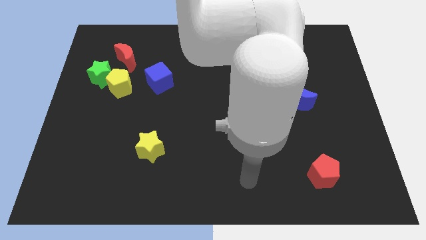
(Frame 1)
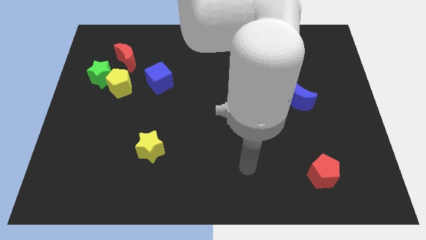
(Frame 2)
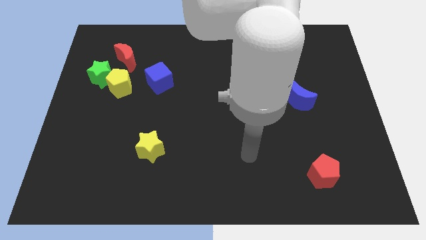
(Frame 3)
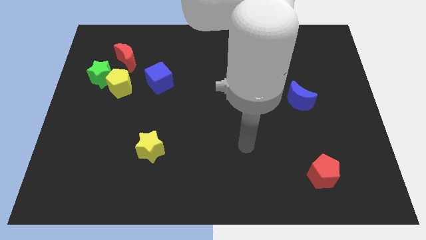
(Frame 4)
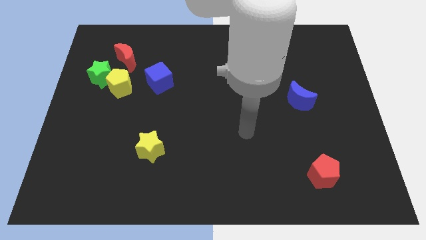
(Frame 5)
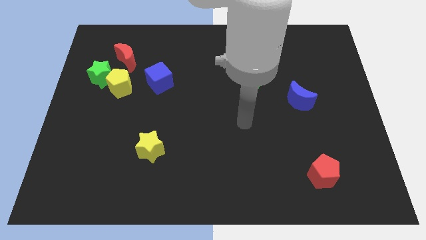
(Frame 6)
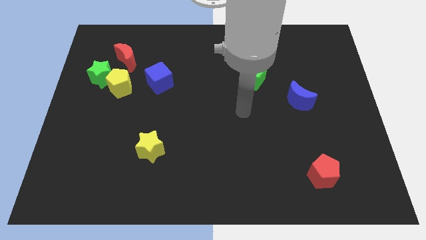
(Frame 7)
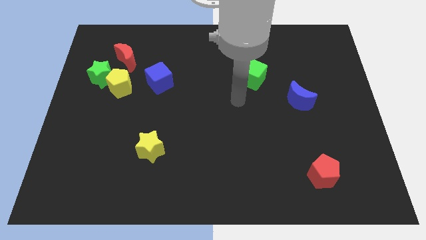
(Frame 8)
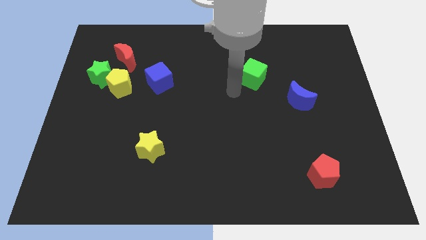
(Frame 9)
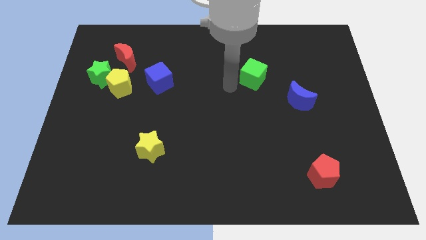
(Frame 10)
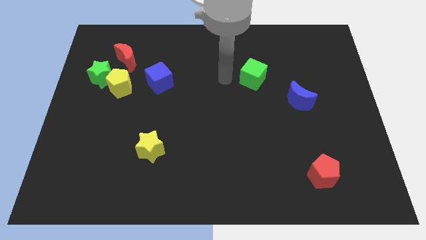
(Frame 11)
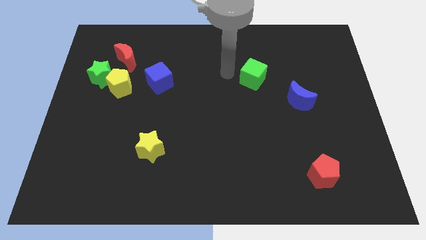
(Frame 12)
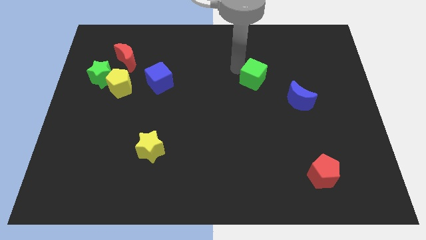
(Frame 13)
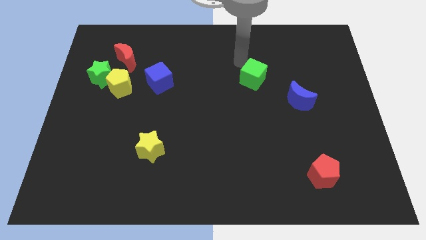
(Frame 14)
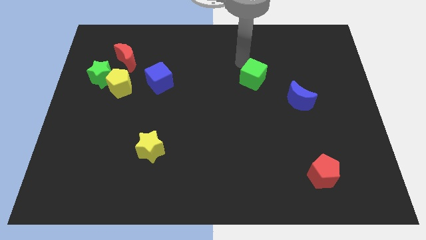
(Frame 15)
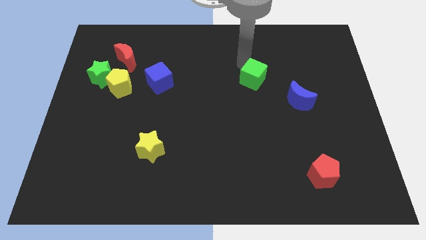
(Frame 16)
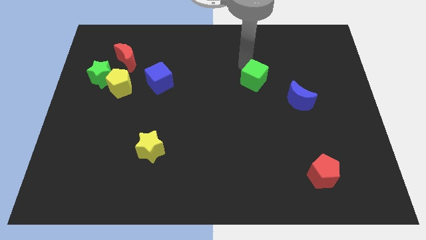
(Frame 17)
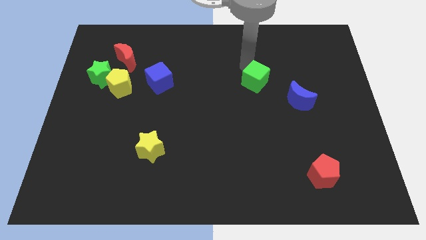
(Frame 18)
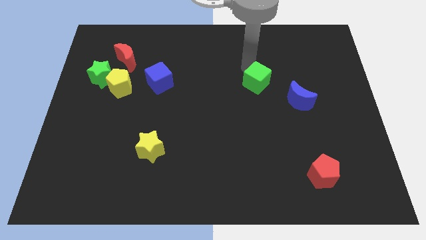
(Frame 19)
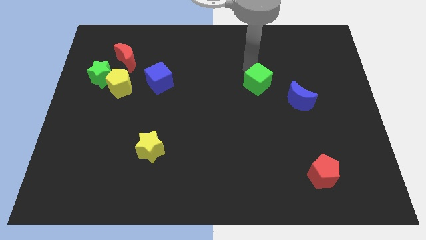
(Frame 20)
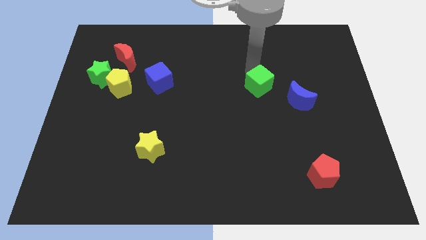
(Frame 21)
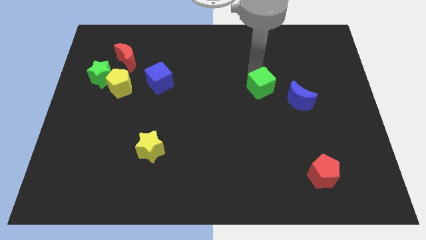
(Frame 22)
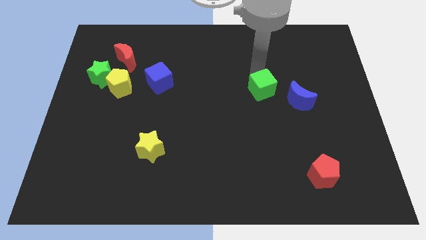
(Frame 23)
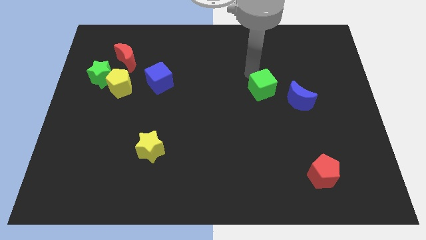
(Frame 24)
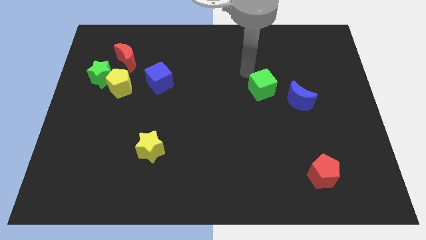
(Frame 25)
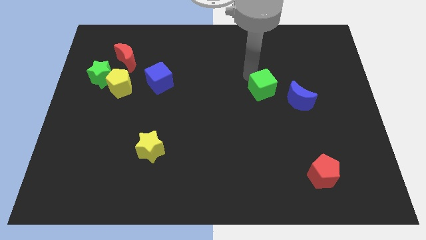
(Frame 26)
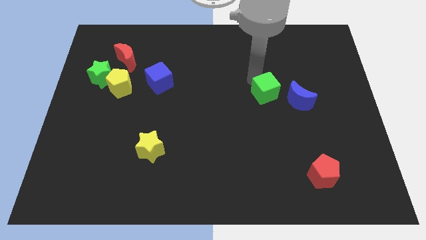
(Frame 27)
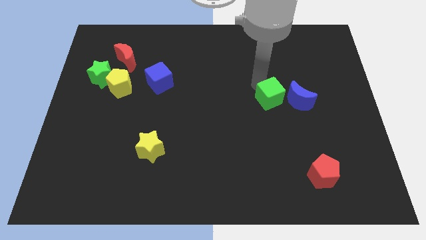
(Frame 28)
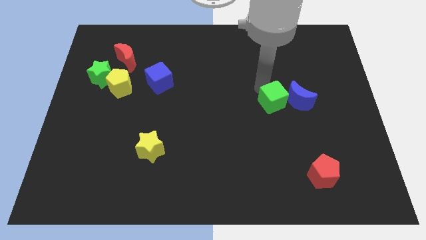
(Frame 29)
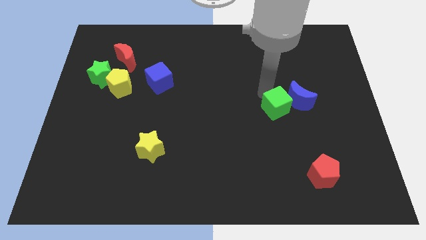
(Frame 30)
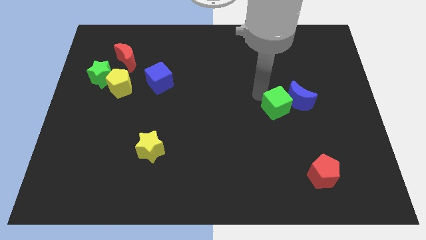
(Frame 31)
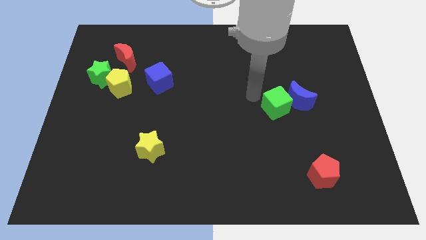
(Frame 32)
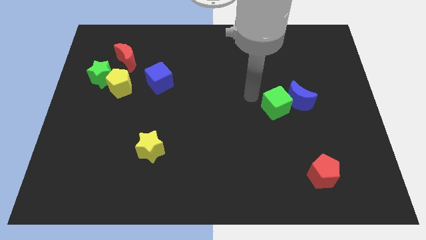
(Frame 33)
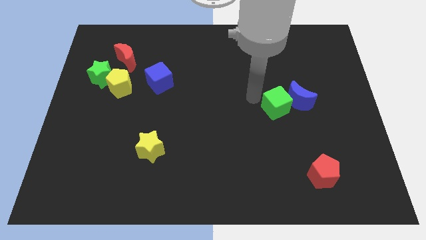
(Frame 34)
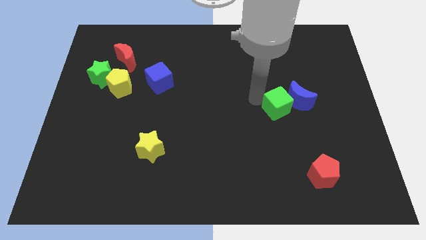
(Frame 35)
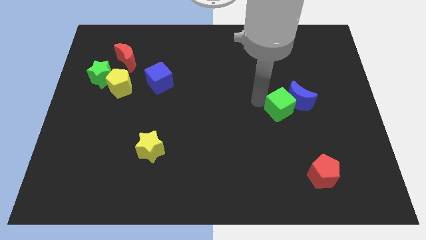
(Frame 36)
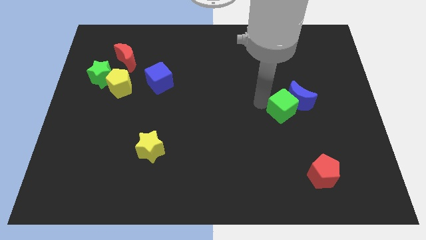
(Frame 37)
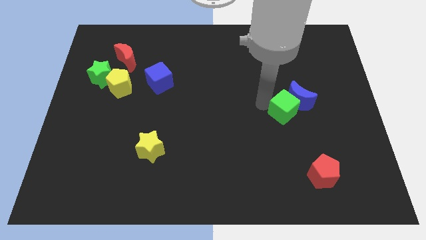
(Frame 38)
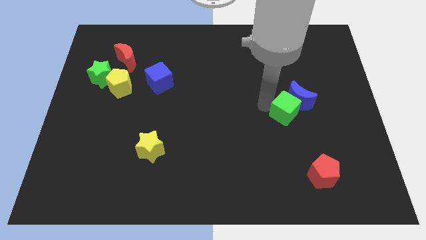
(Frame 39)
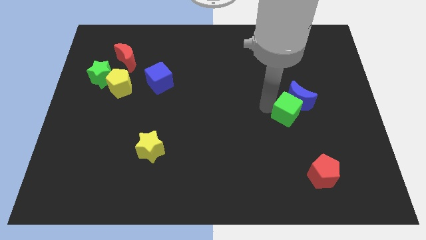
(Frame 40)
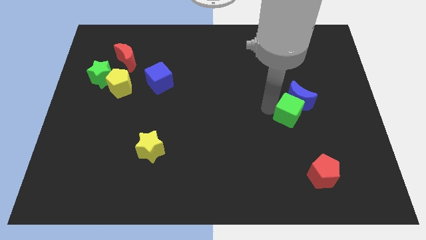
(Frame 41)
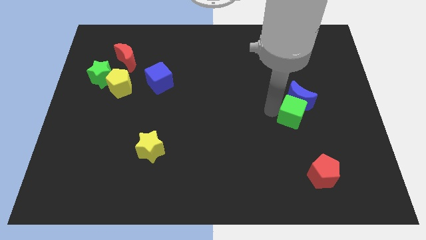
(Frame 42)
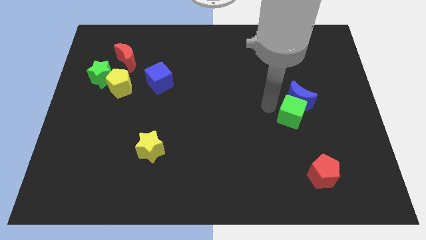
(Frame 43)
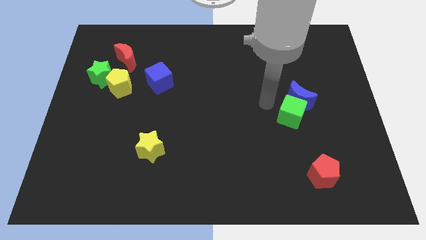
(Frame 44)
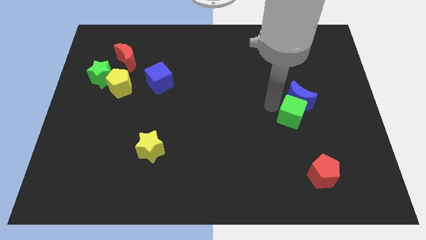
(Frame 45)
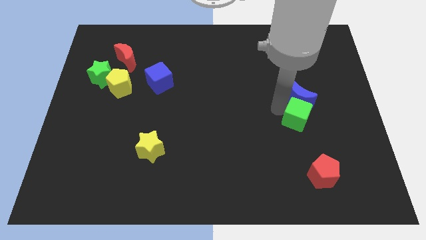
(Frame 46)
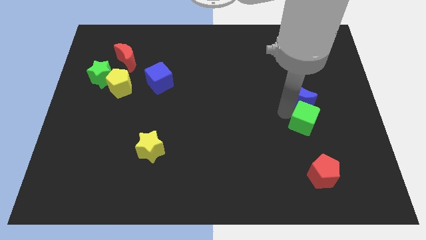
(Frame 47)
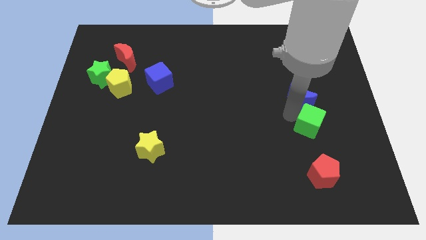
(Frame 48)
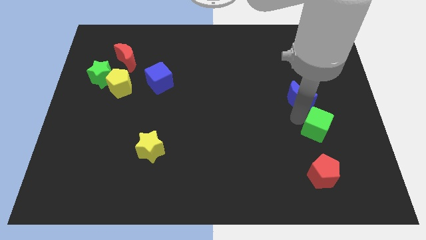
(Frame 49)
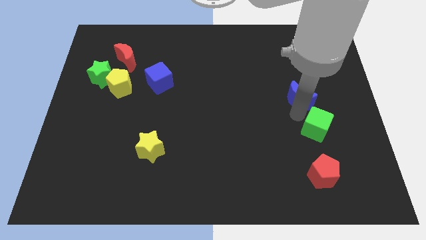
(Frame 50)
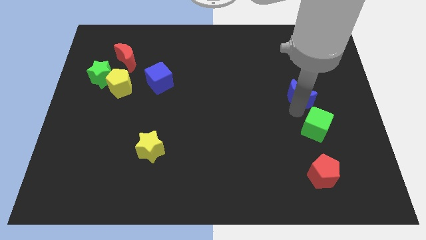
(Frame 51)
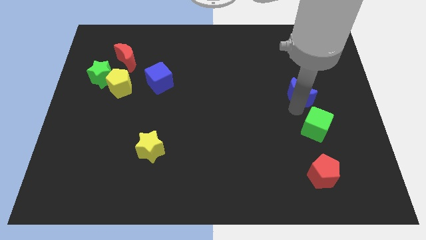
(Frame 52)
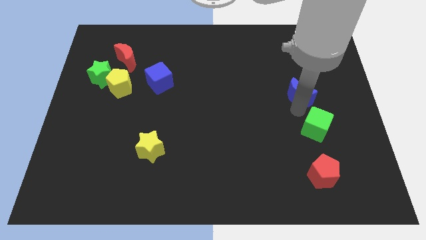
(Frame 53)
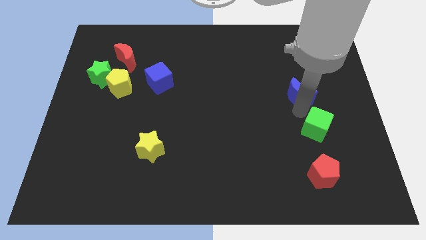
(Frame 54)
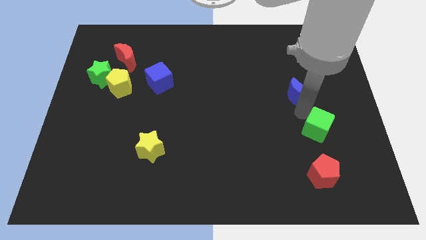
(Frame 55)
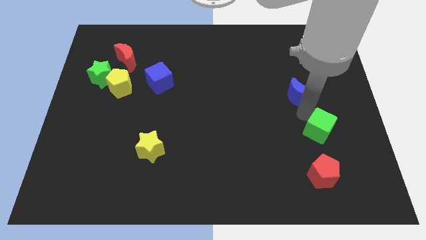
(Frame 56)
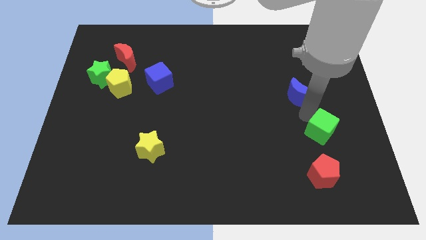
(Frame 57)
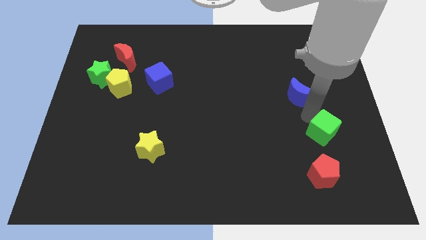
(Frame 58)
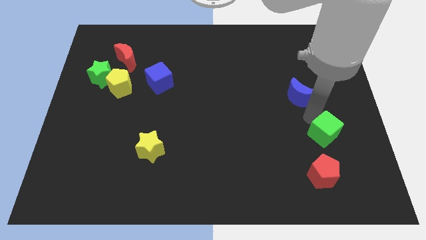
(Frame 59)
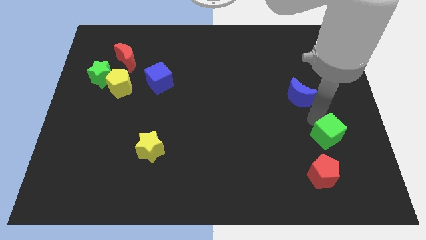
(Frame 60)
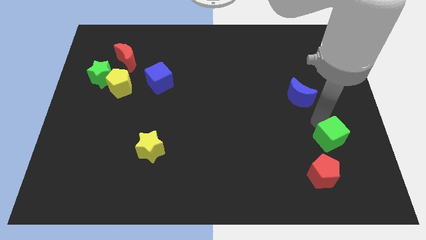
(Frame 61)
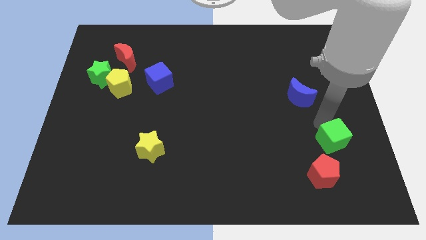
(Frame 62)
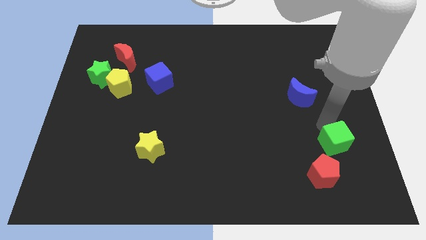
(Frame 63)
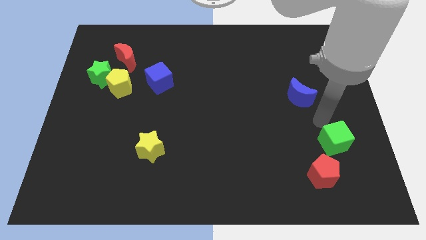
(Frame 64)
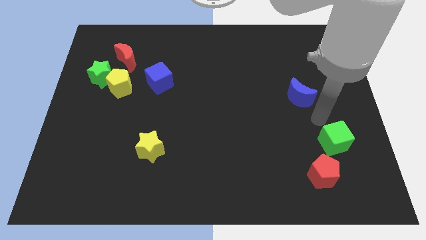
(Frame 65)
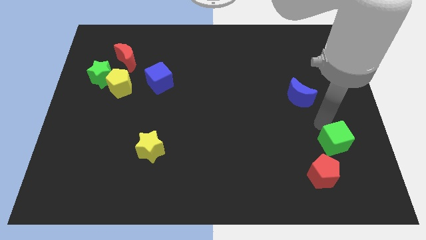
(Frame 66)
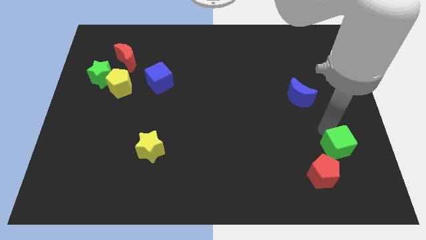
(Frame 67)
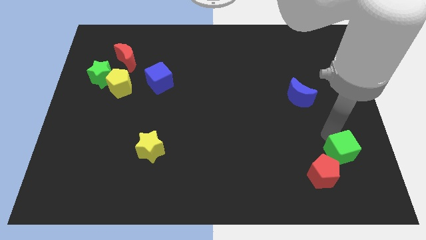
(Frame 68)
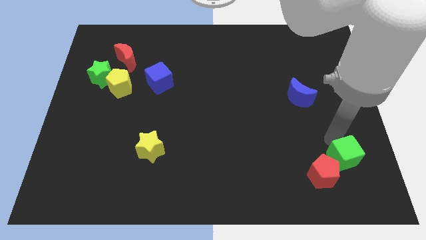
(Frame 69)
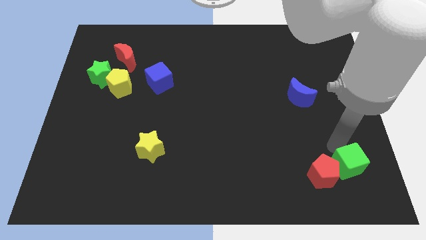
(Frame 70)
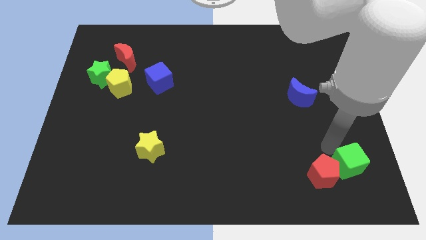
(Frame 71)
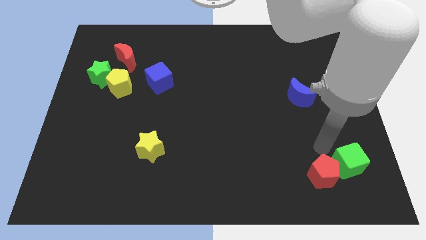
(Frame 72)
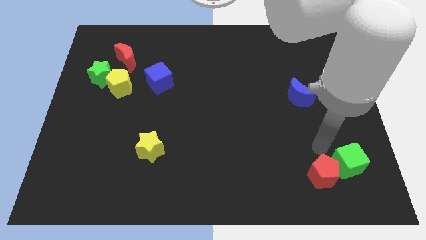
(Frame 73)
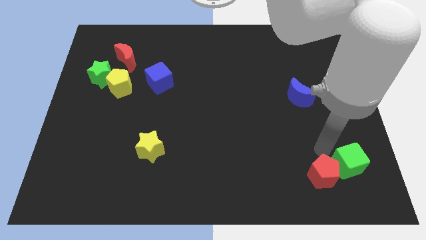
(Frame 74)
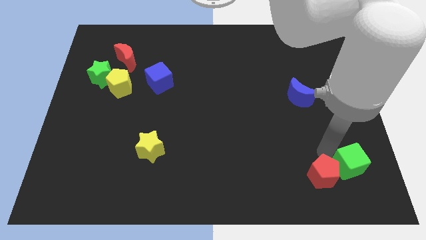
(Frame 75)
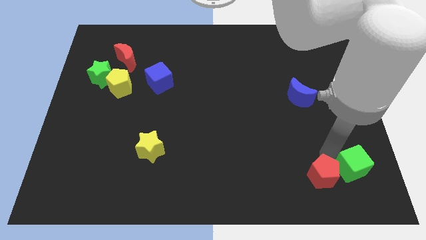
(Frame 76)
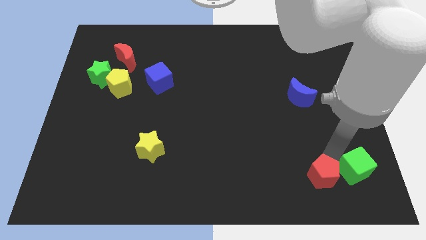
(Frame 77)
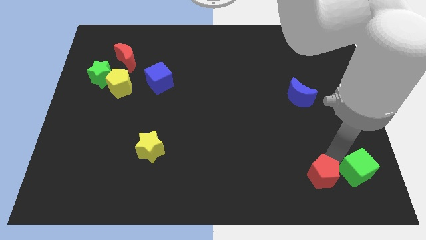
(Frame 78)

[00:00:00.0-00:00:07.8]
put the green cube to the bottom right of the board

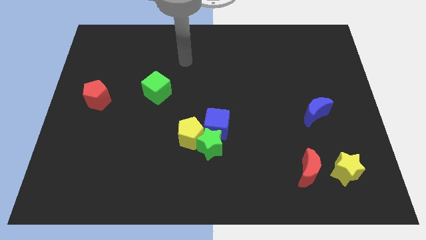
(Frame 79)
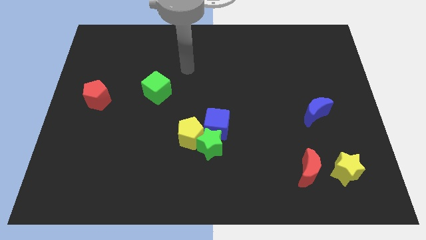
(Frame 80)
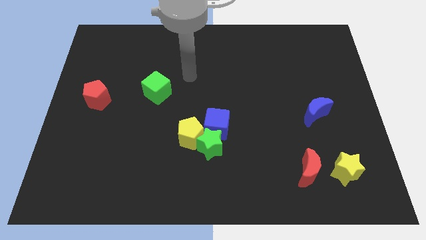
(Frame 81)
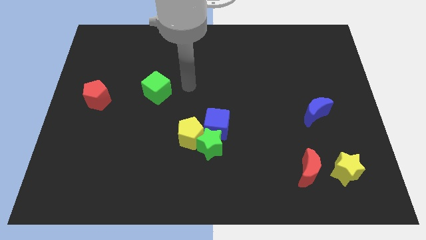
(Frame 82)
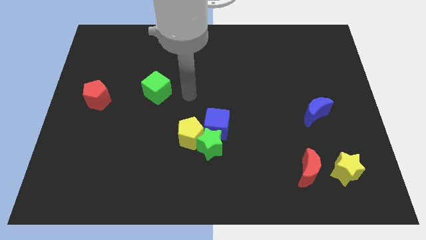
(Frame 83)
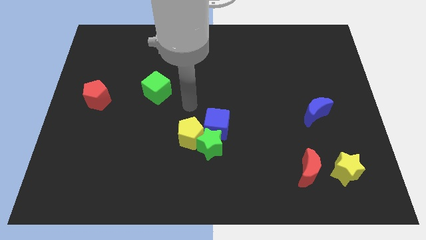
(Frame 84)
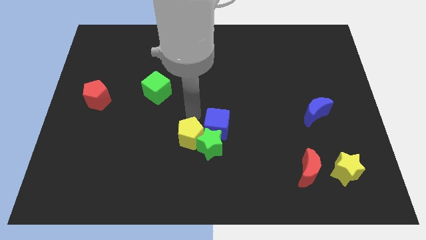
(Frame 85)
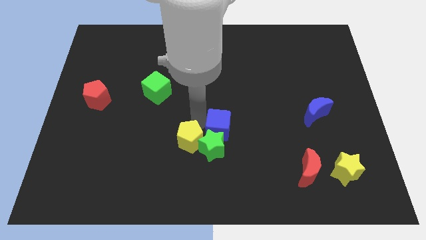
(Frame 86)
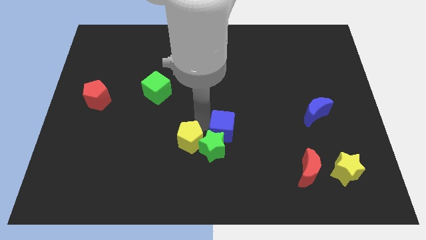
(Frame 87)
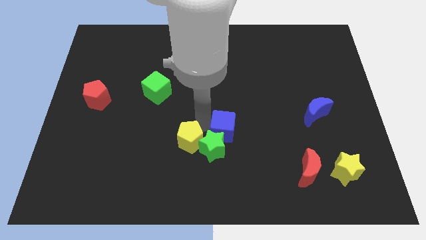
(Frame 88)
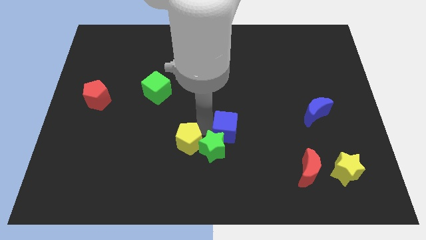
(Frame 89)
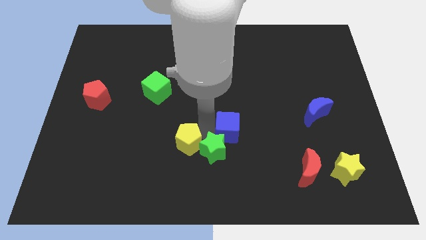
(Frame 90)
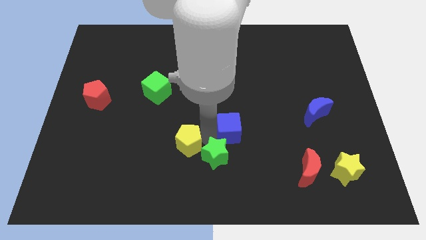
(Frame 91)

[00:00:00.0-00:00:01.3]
push the green star to the bottom
